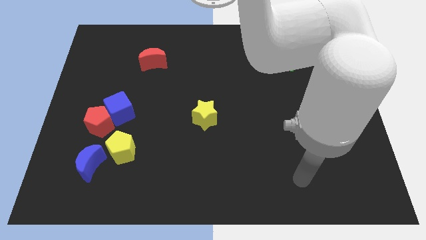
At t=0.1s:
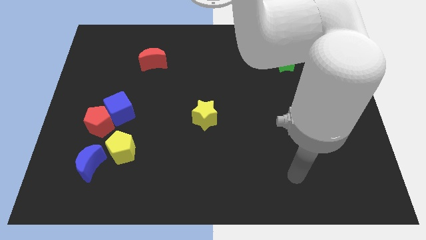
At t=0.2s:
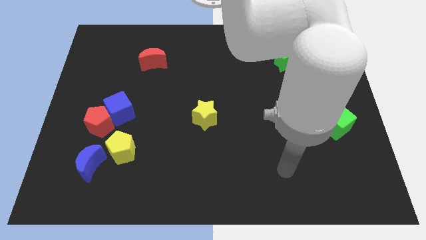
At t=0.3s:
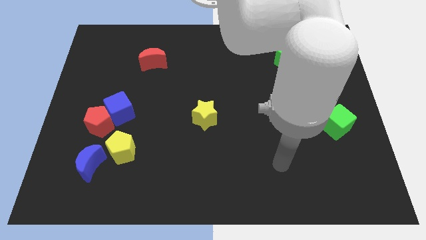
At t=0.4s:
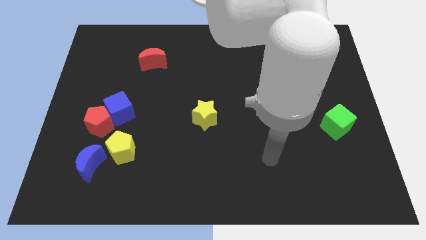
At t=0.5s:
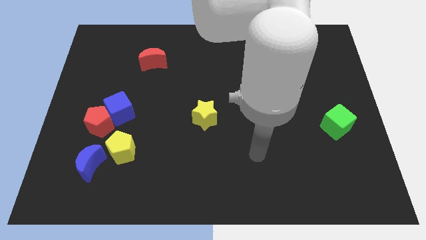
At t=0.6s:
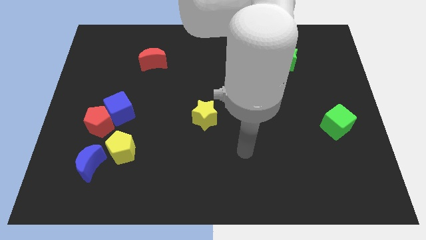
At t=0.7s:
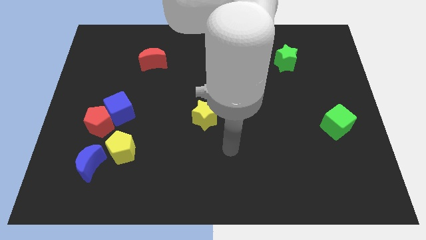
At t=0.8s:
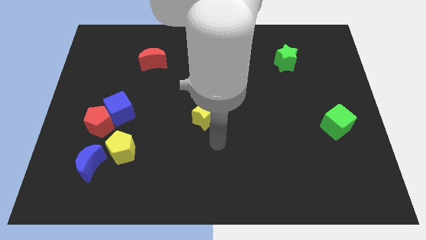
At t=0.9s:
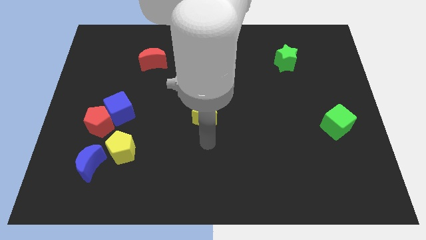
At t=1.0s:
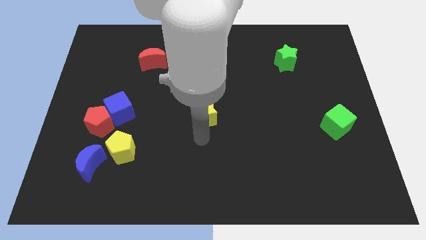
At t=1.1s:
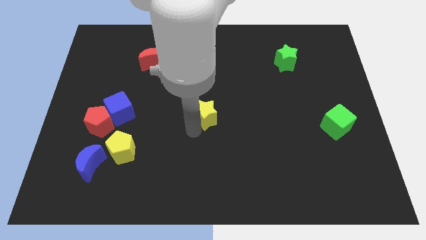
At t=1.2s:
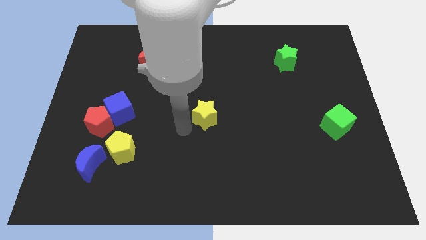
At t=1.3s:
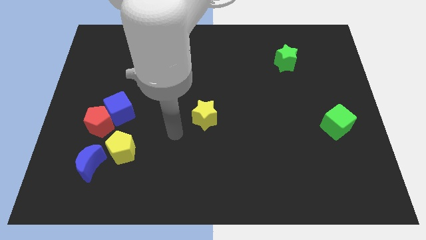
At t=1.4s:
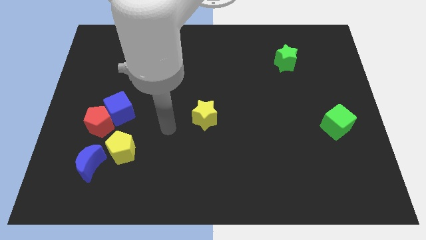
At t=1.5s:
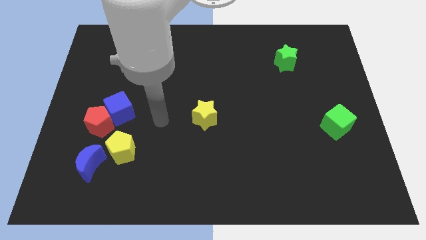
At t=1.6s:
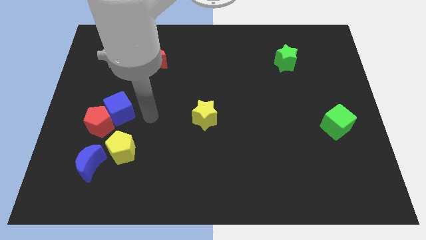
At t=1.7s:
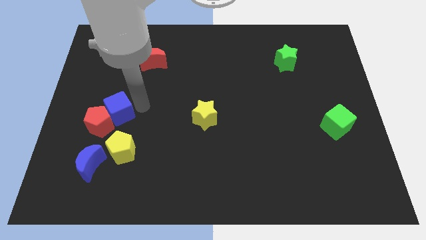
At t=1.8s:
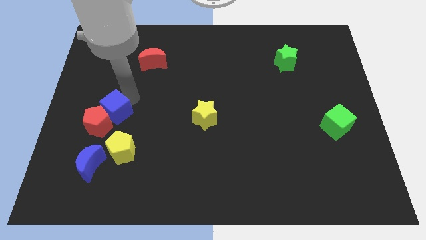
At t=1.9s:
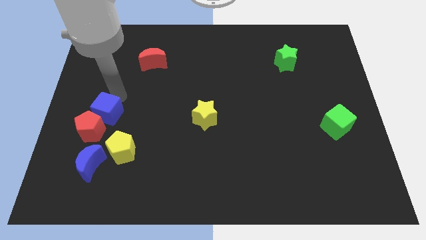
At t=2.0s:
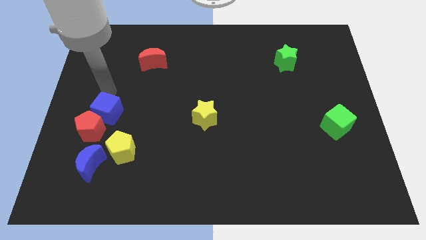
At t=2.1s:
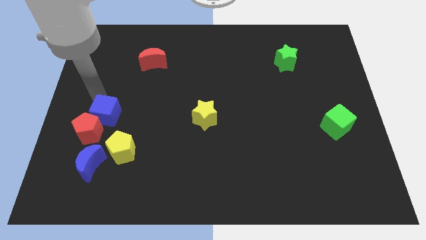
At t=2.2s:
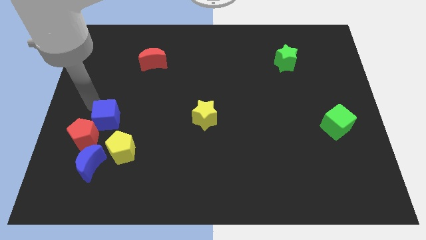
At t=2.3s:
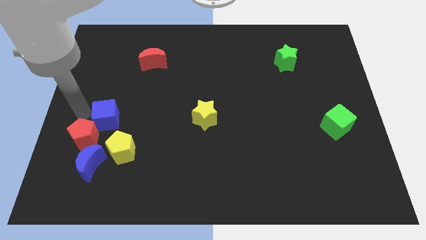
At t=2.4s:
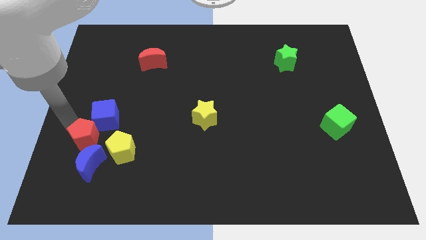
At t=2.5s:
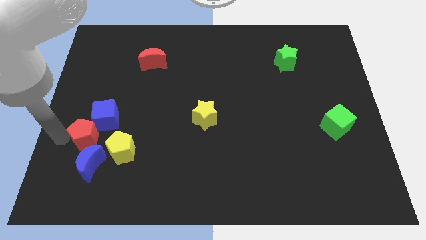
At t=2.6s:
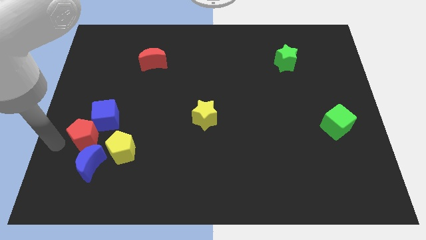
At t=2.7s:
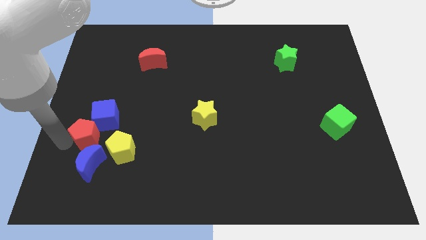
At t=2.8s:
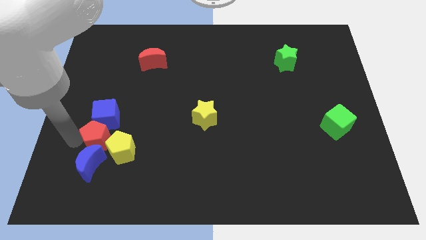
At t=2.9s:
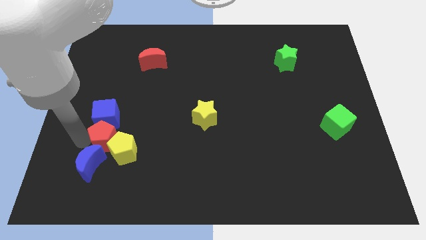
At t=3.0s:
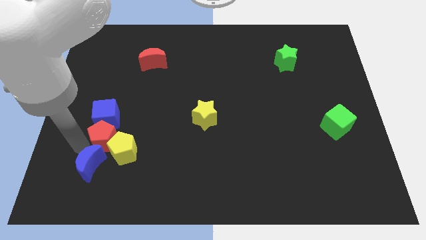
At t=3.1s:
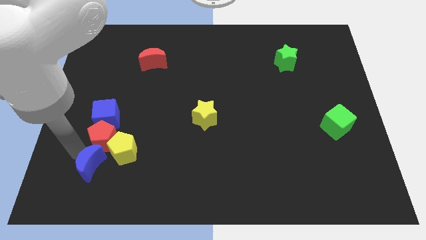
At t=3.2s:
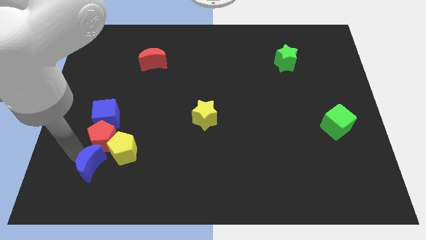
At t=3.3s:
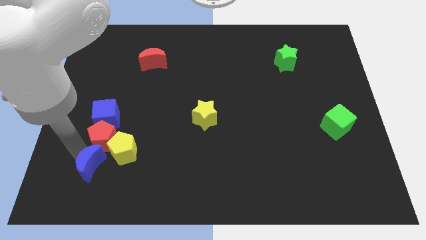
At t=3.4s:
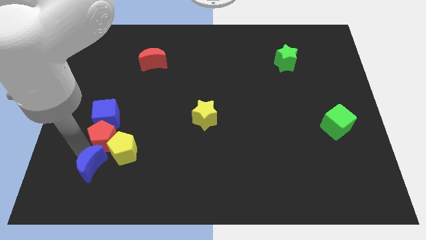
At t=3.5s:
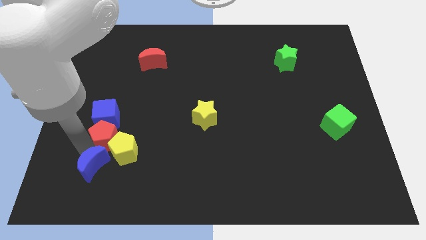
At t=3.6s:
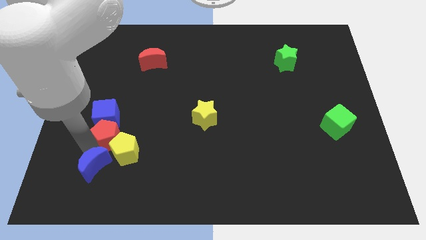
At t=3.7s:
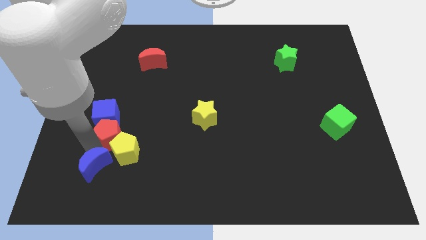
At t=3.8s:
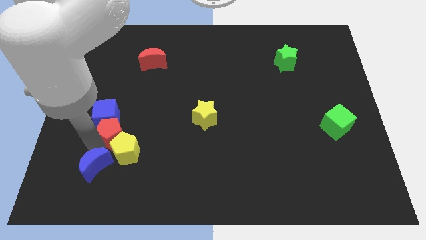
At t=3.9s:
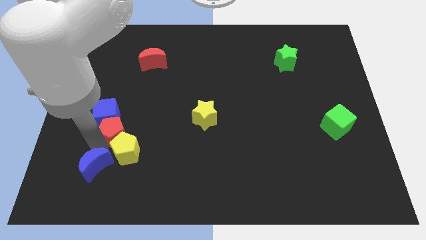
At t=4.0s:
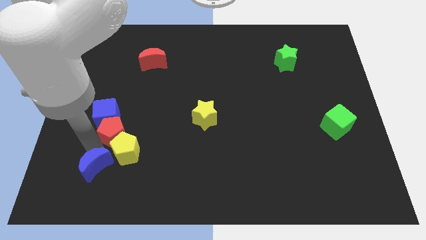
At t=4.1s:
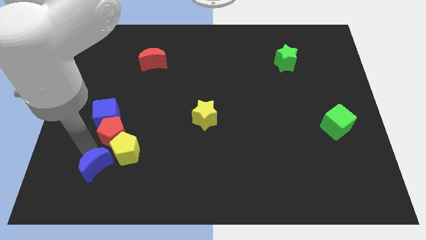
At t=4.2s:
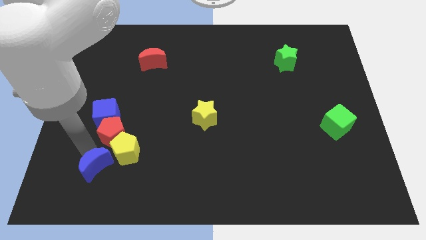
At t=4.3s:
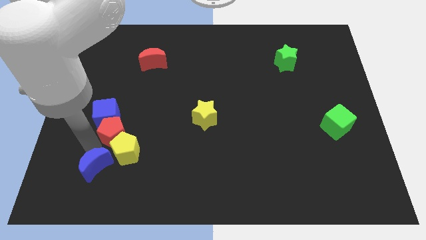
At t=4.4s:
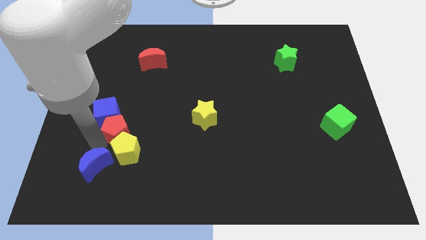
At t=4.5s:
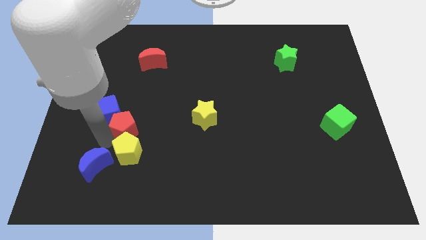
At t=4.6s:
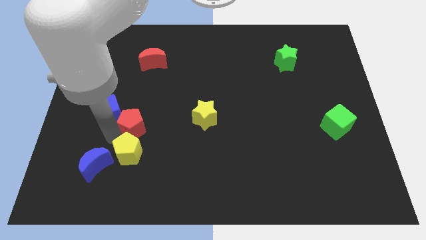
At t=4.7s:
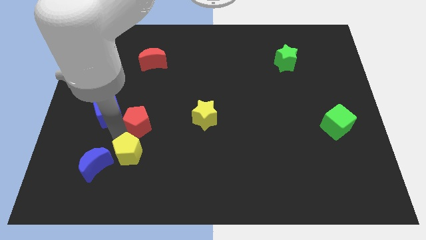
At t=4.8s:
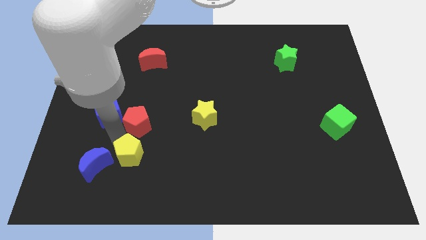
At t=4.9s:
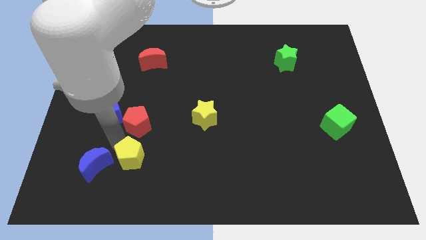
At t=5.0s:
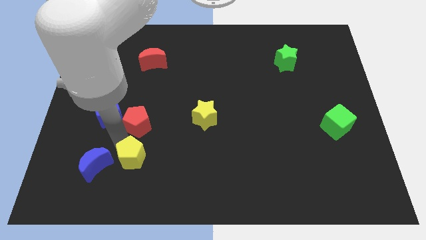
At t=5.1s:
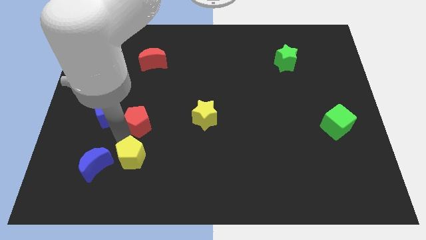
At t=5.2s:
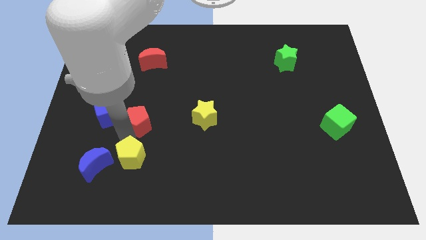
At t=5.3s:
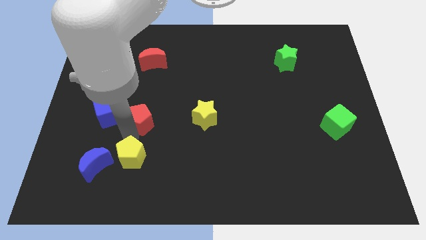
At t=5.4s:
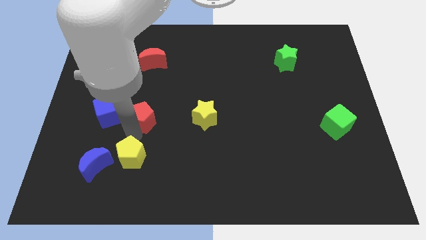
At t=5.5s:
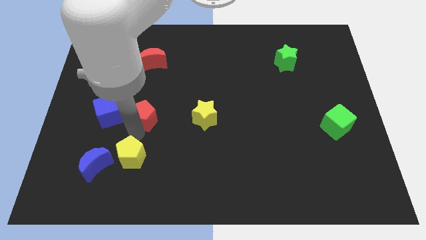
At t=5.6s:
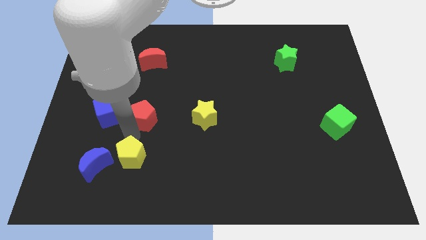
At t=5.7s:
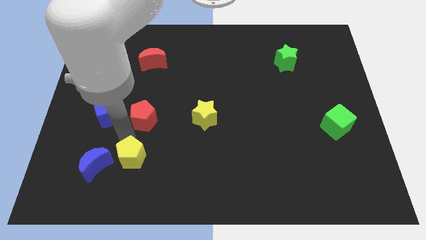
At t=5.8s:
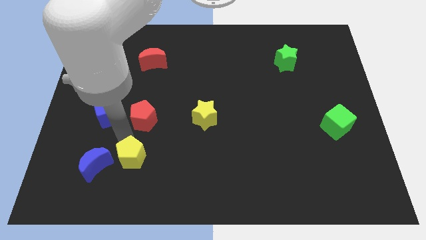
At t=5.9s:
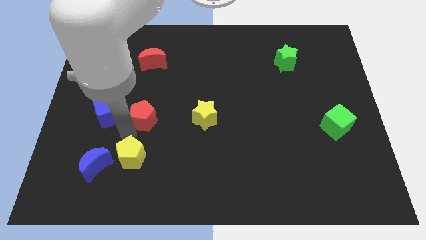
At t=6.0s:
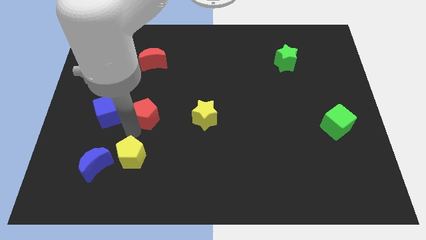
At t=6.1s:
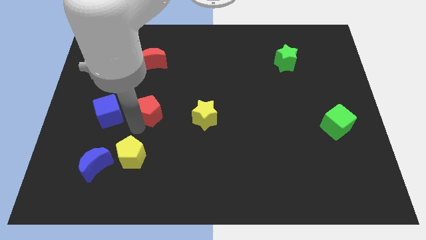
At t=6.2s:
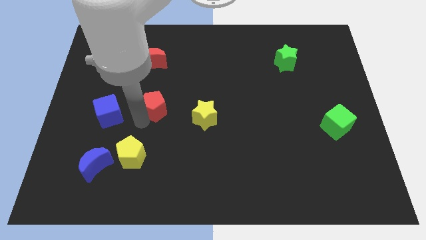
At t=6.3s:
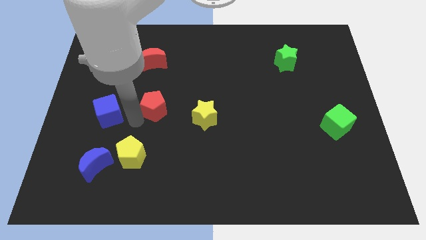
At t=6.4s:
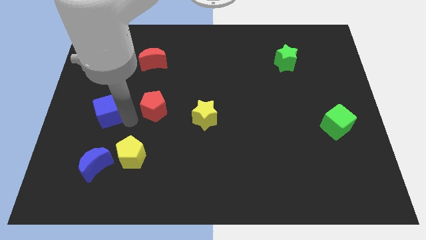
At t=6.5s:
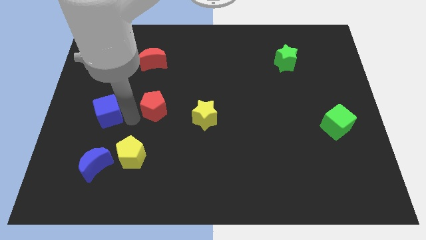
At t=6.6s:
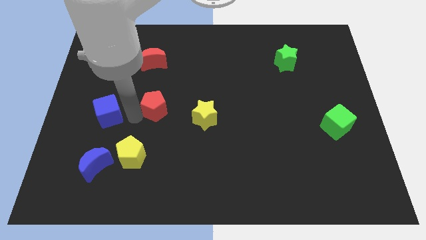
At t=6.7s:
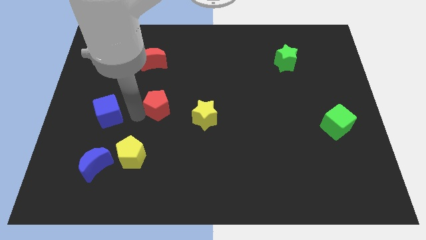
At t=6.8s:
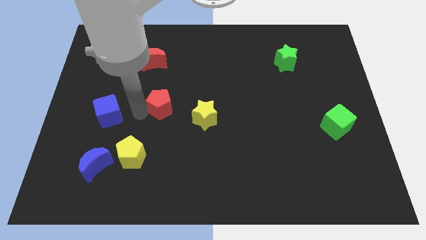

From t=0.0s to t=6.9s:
move the red pentagon to the center of the board
